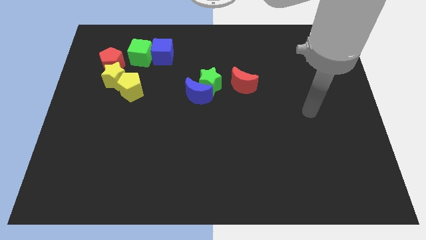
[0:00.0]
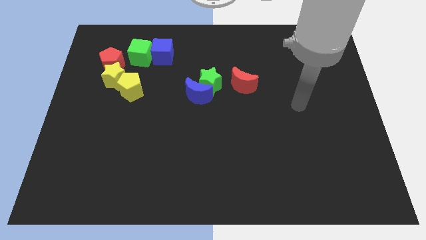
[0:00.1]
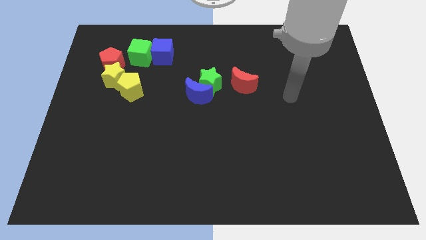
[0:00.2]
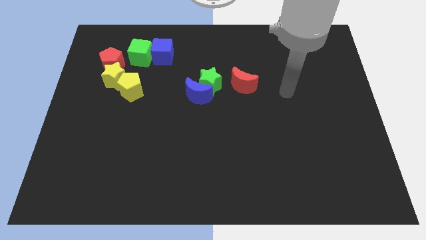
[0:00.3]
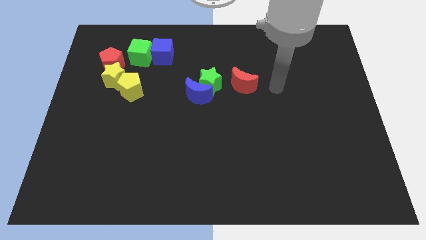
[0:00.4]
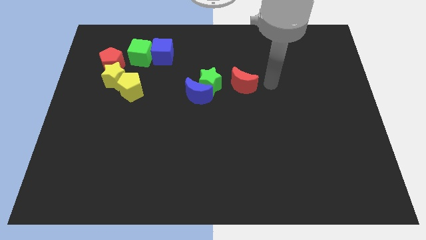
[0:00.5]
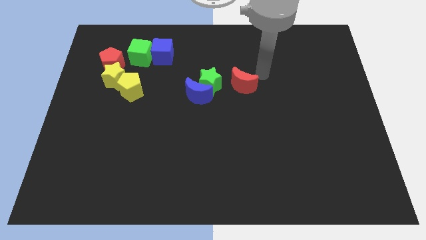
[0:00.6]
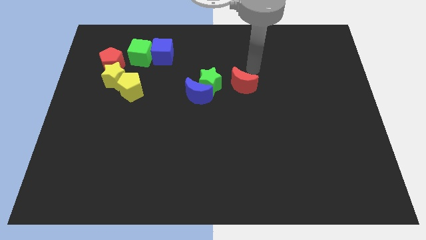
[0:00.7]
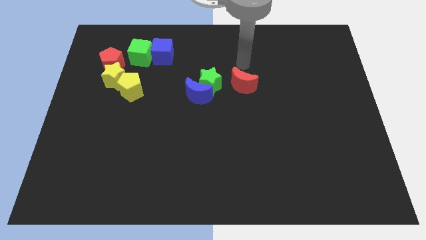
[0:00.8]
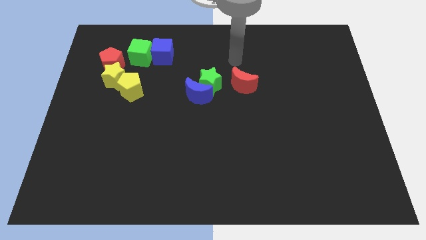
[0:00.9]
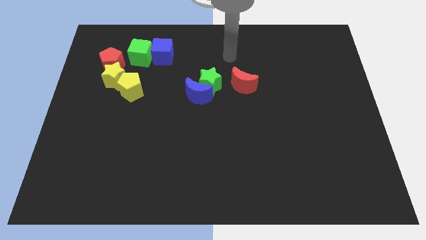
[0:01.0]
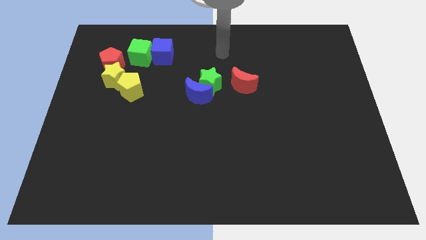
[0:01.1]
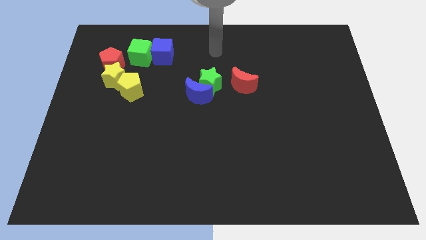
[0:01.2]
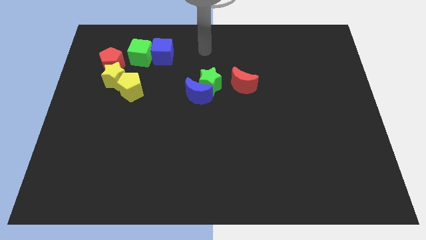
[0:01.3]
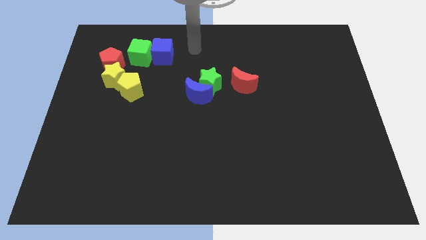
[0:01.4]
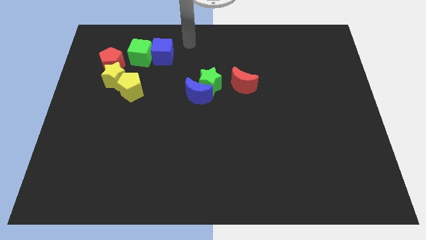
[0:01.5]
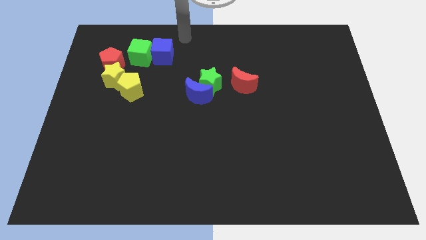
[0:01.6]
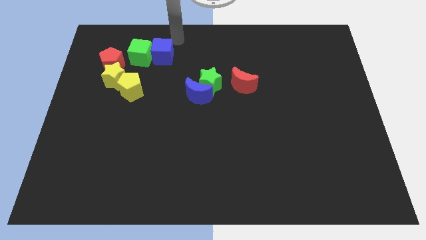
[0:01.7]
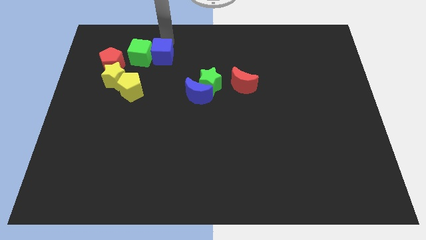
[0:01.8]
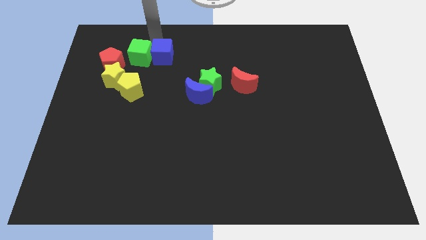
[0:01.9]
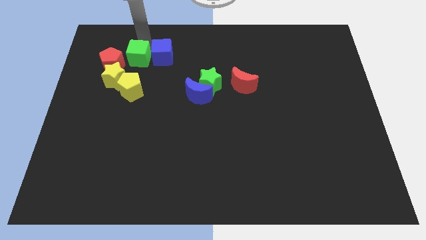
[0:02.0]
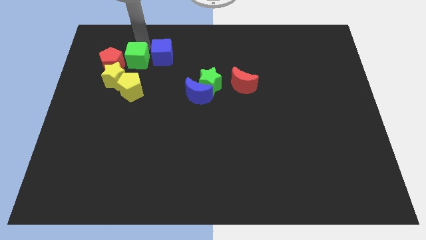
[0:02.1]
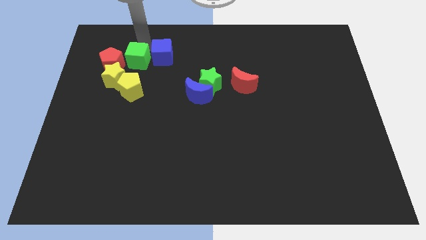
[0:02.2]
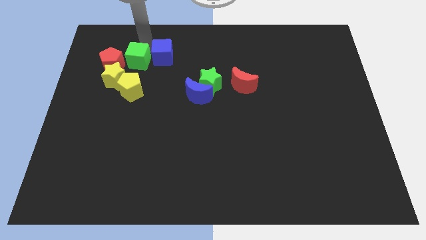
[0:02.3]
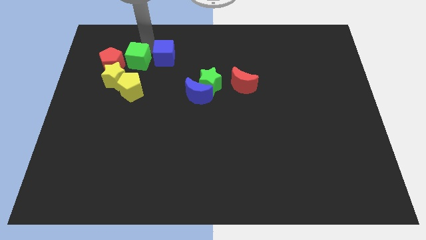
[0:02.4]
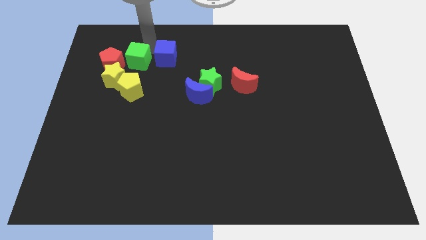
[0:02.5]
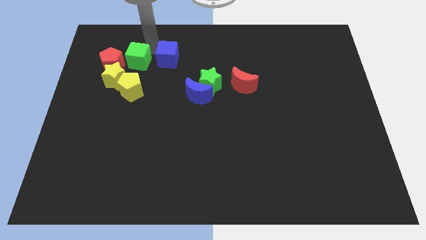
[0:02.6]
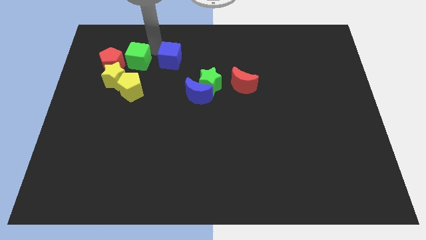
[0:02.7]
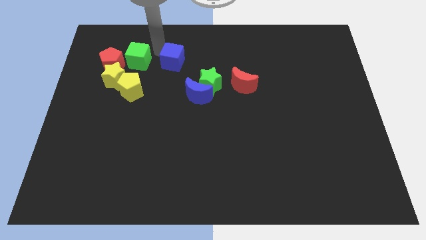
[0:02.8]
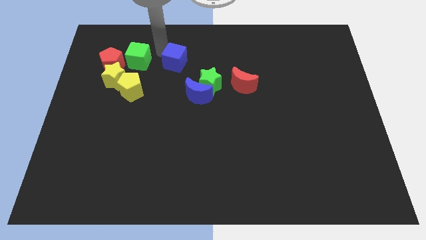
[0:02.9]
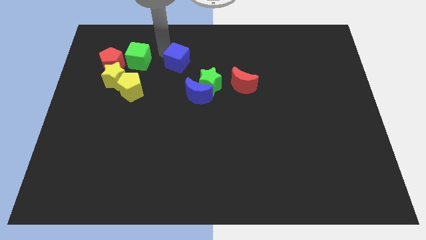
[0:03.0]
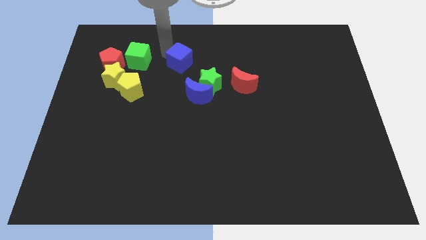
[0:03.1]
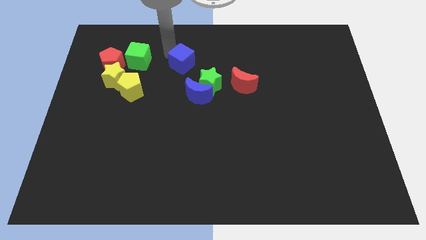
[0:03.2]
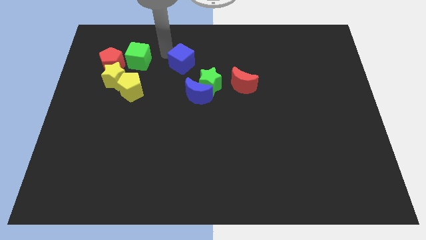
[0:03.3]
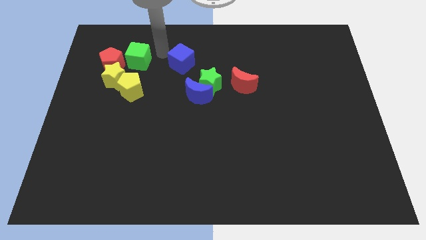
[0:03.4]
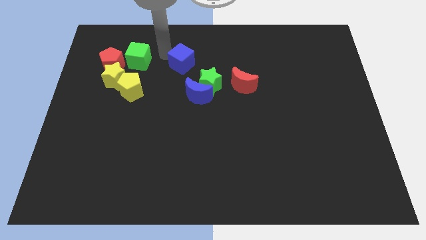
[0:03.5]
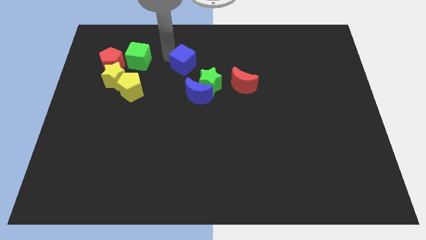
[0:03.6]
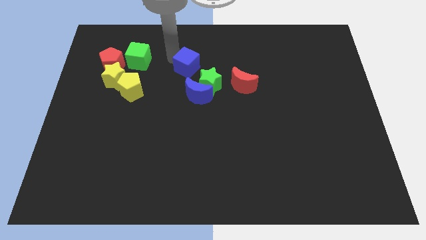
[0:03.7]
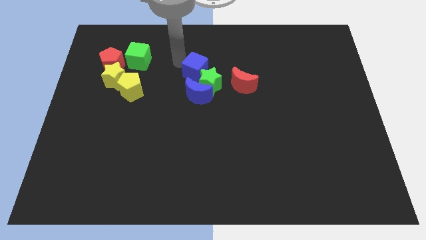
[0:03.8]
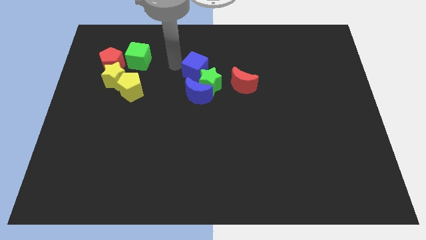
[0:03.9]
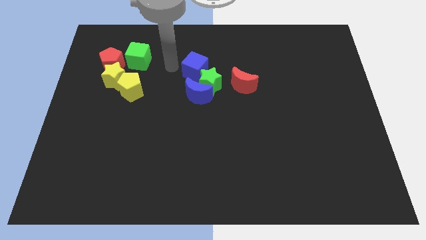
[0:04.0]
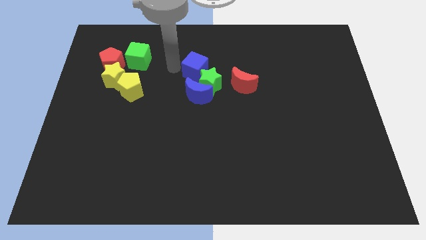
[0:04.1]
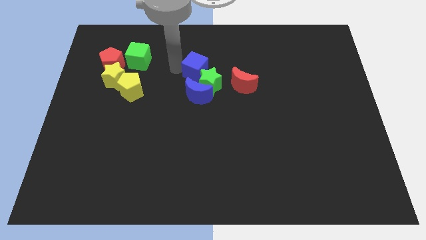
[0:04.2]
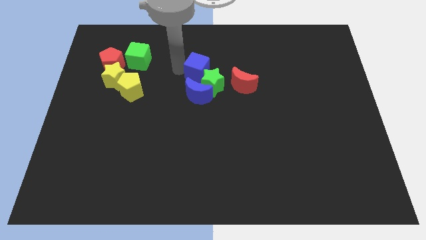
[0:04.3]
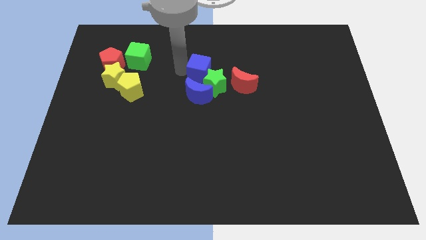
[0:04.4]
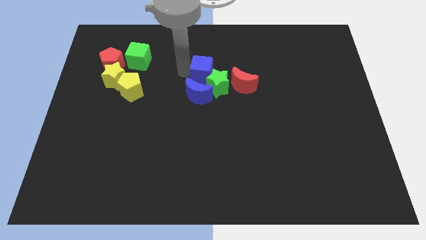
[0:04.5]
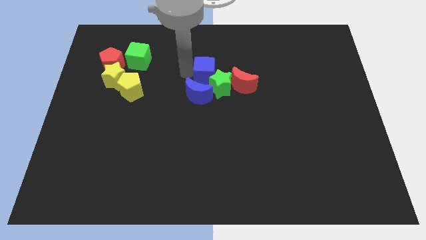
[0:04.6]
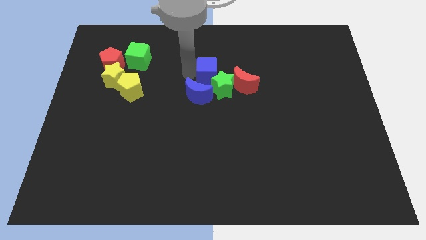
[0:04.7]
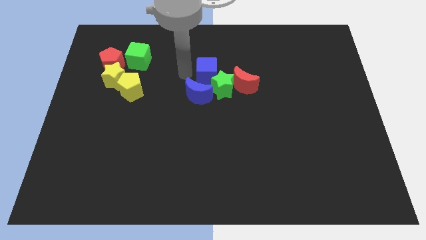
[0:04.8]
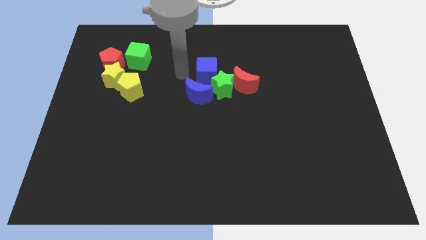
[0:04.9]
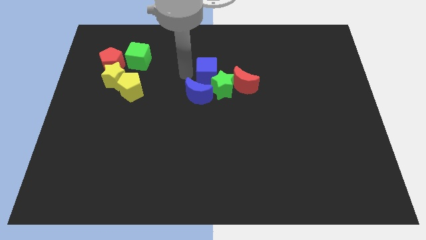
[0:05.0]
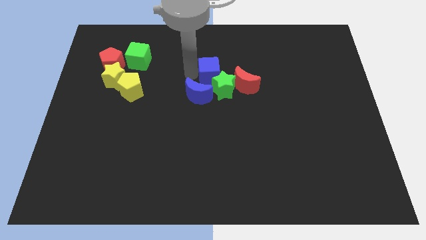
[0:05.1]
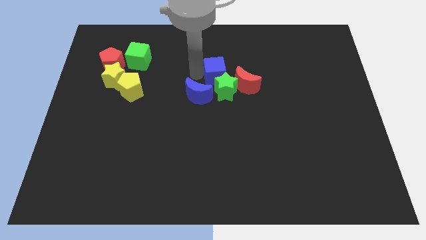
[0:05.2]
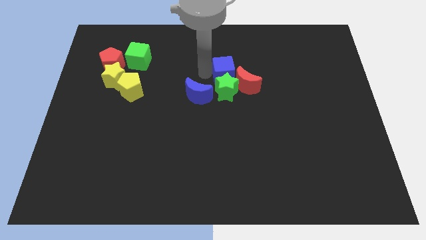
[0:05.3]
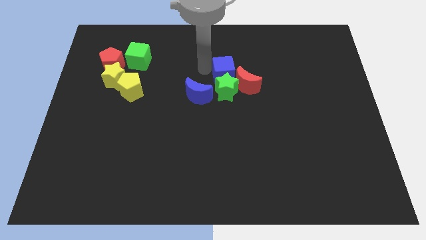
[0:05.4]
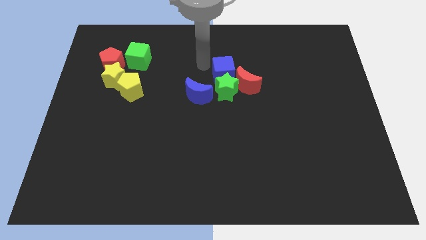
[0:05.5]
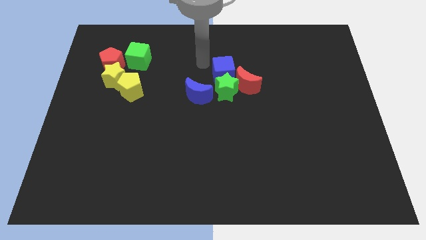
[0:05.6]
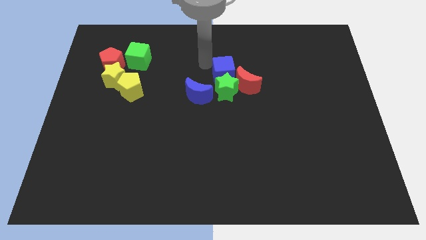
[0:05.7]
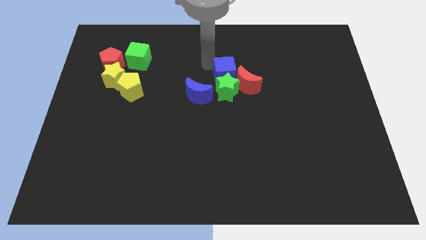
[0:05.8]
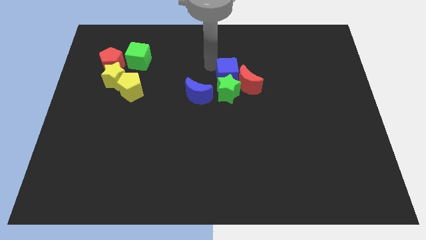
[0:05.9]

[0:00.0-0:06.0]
move the blue cube next to the red moon

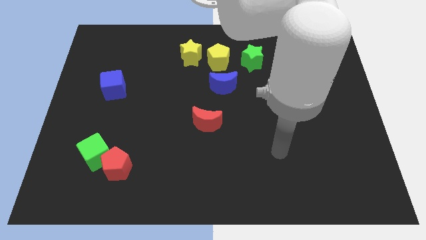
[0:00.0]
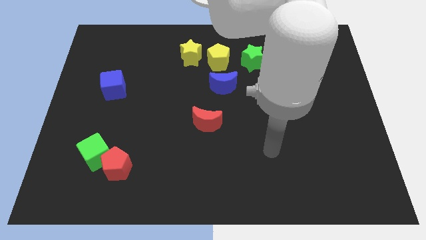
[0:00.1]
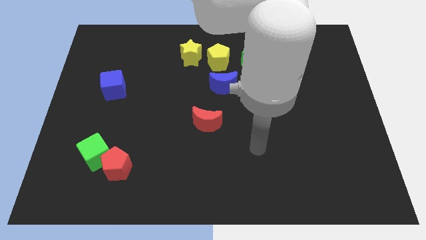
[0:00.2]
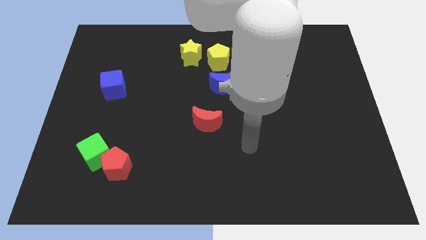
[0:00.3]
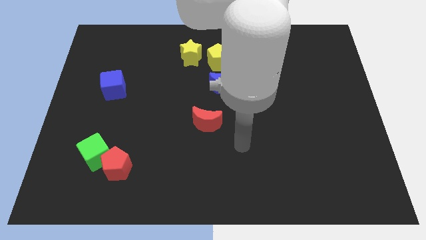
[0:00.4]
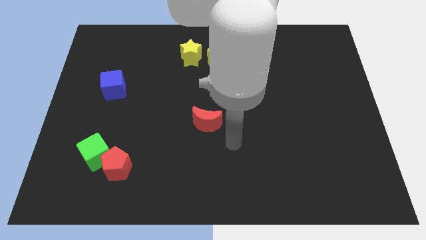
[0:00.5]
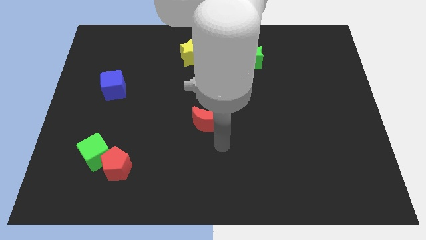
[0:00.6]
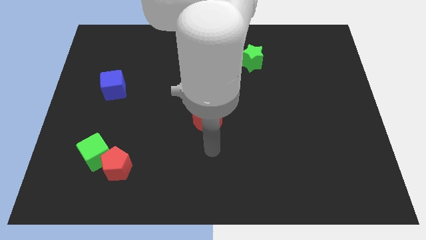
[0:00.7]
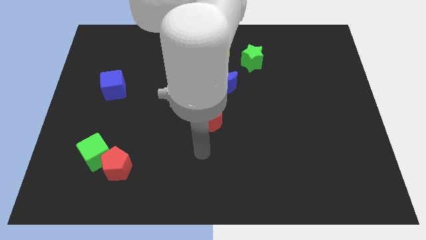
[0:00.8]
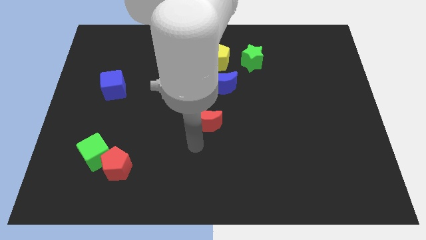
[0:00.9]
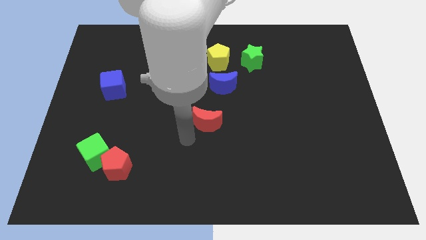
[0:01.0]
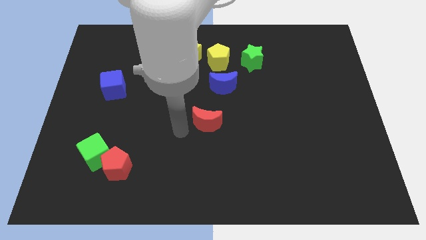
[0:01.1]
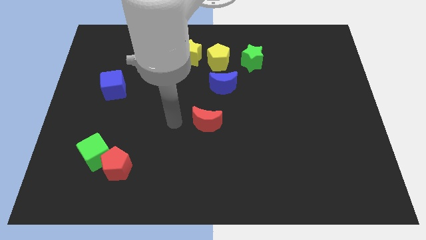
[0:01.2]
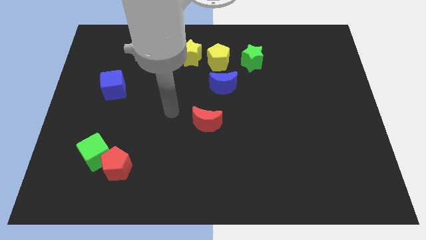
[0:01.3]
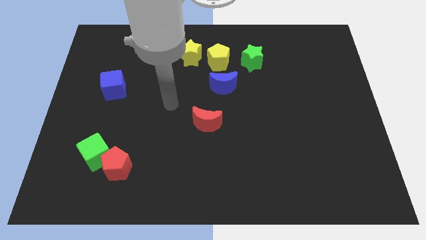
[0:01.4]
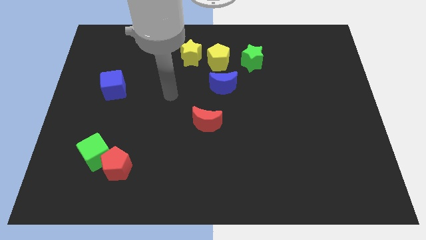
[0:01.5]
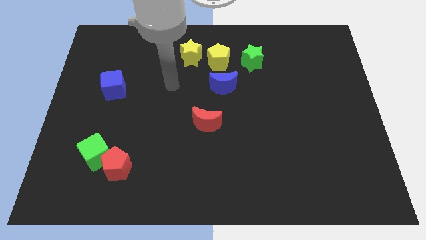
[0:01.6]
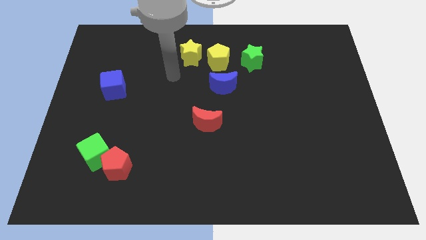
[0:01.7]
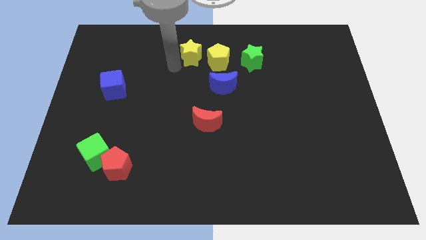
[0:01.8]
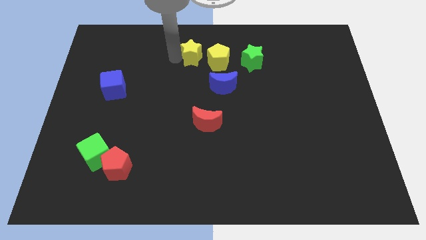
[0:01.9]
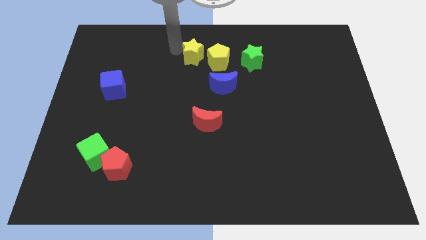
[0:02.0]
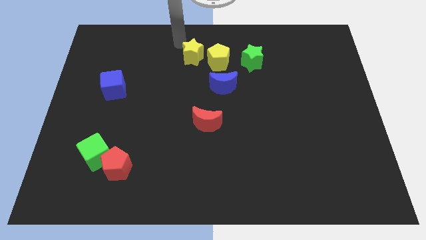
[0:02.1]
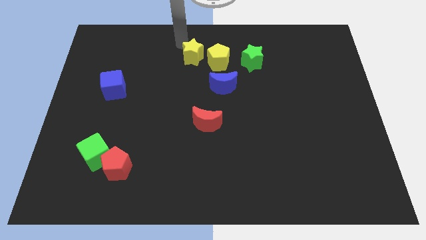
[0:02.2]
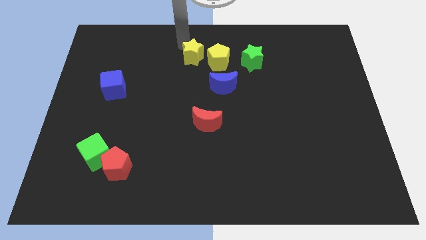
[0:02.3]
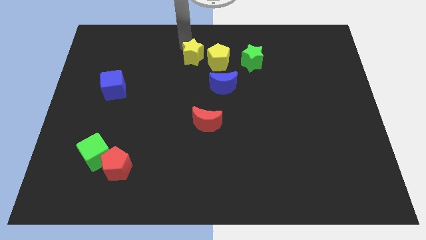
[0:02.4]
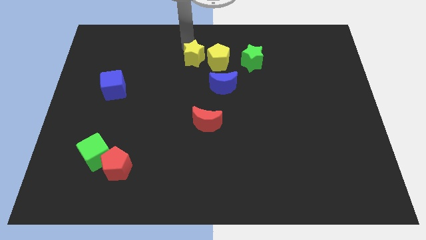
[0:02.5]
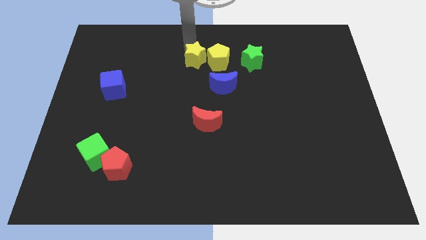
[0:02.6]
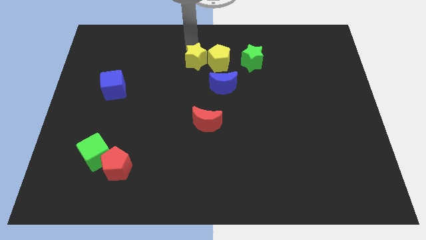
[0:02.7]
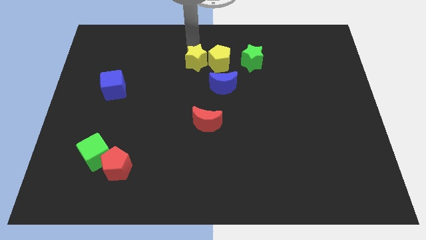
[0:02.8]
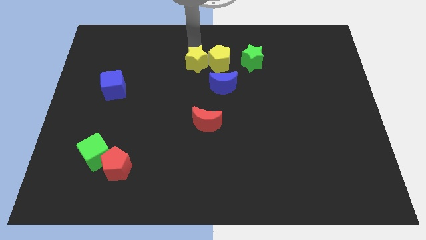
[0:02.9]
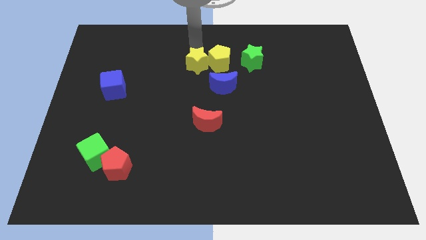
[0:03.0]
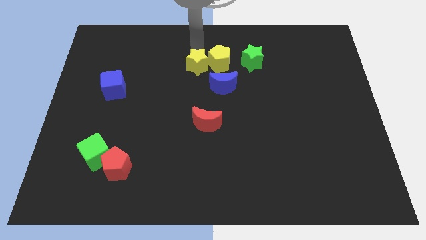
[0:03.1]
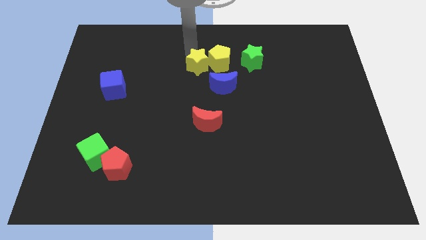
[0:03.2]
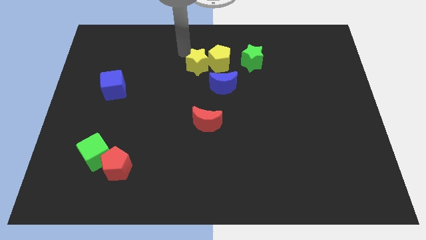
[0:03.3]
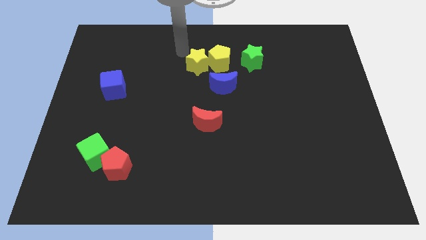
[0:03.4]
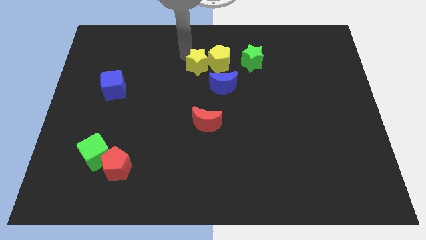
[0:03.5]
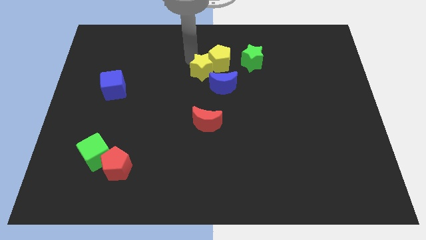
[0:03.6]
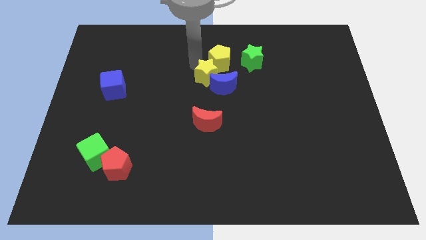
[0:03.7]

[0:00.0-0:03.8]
push the yellow star to the blue moon
